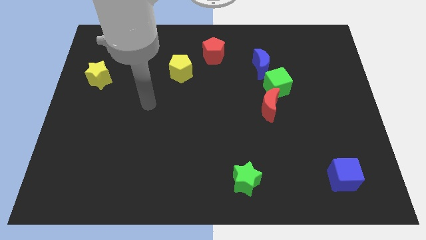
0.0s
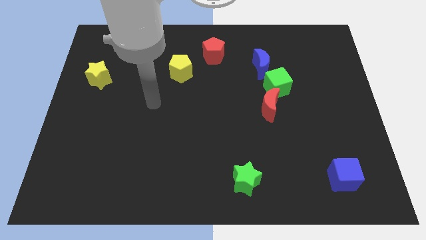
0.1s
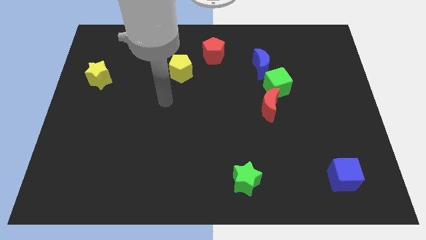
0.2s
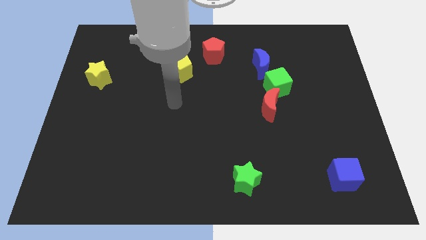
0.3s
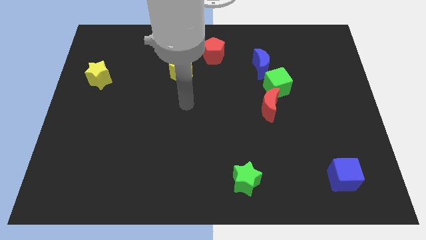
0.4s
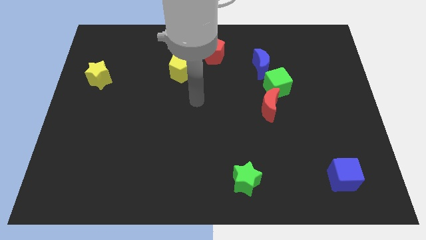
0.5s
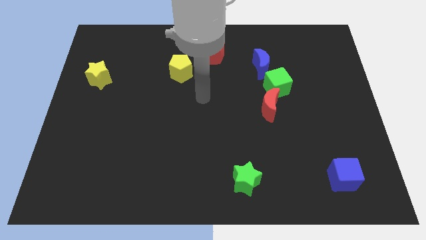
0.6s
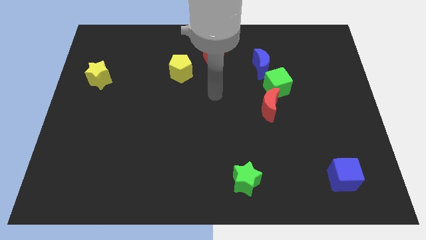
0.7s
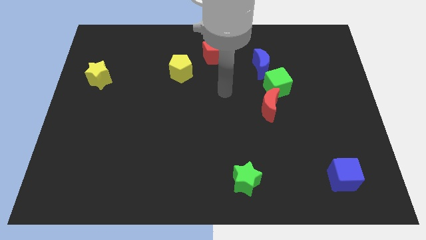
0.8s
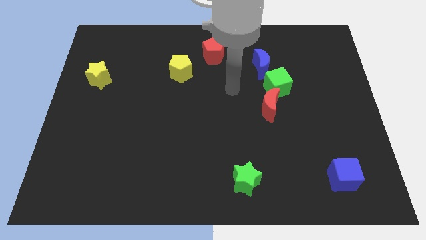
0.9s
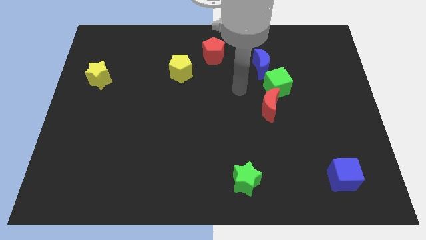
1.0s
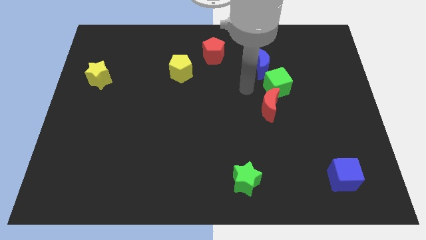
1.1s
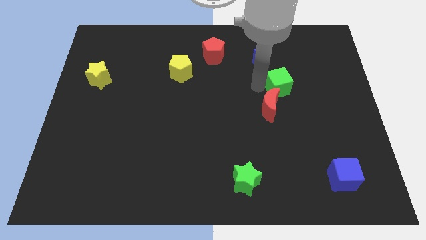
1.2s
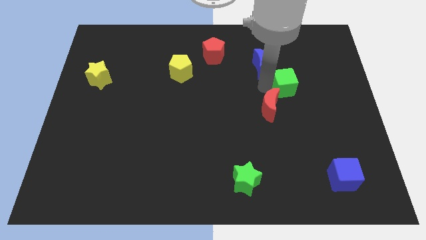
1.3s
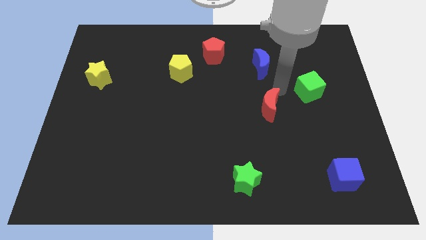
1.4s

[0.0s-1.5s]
separate the red moon from the green cube

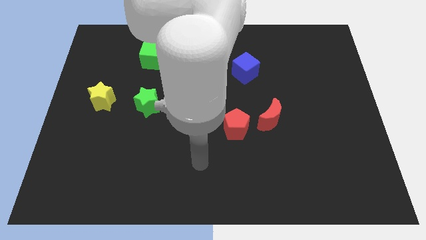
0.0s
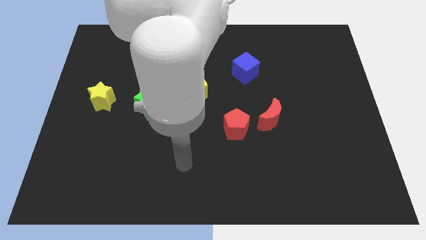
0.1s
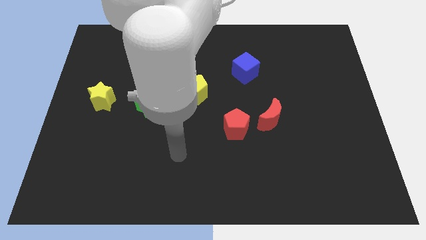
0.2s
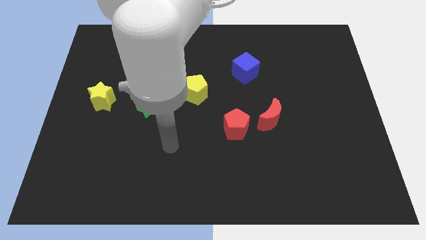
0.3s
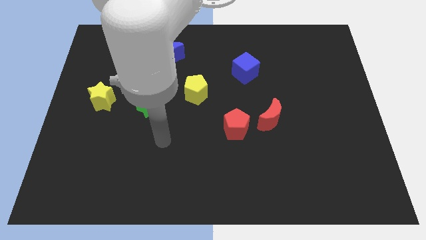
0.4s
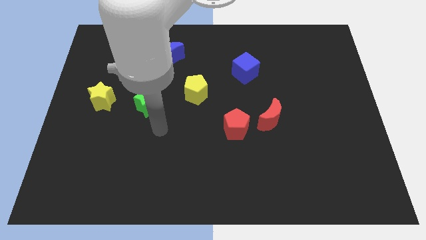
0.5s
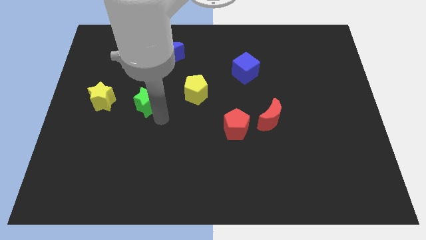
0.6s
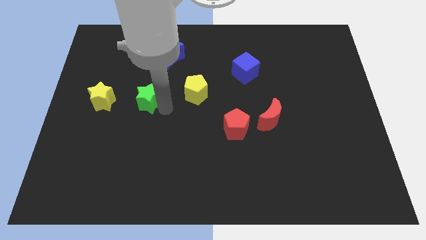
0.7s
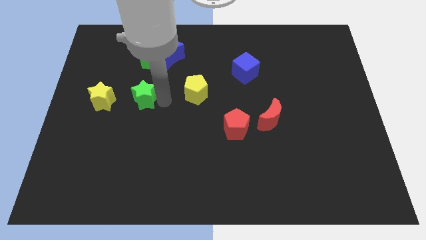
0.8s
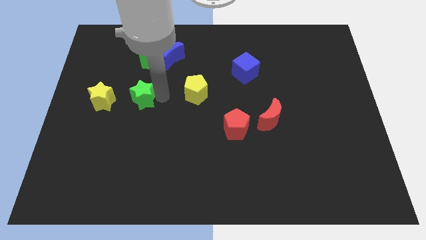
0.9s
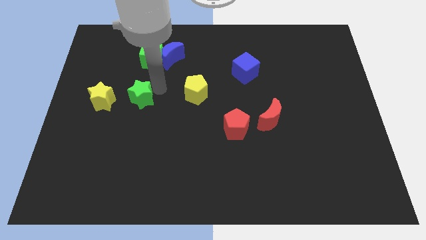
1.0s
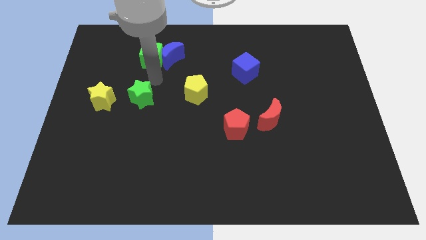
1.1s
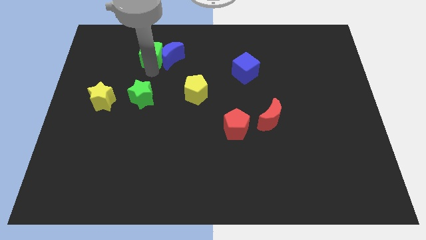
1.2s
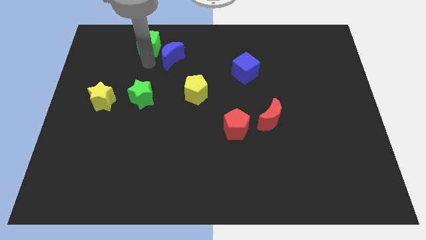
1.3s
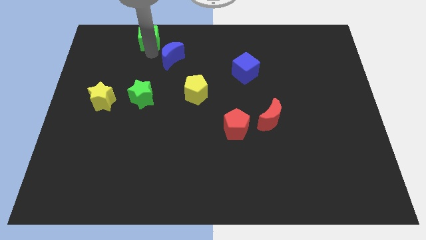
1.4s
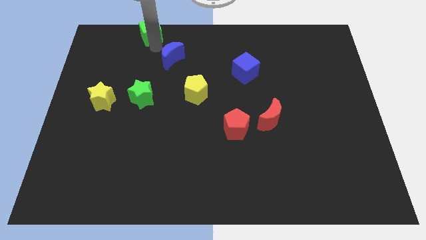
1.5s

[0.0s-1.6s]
move the blue moon away from the green cube

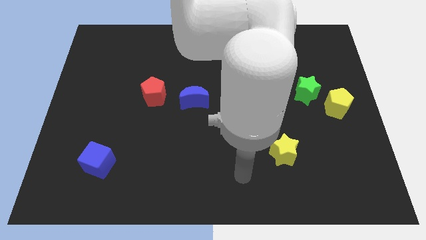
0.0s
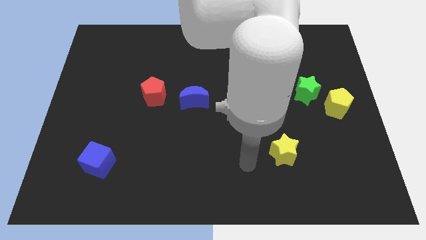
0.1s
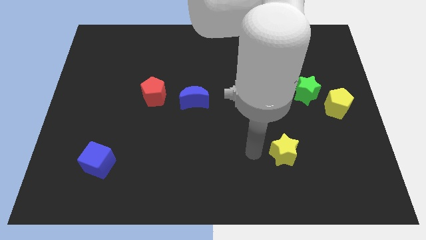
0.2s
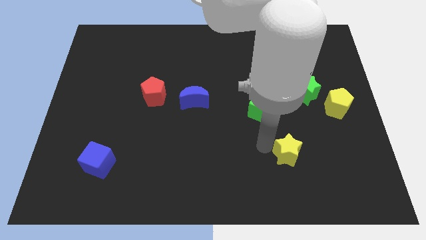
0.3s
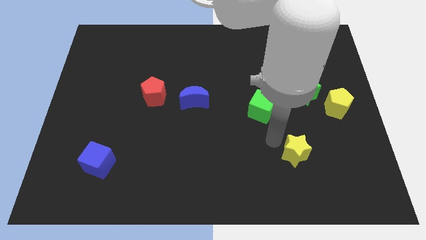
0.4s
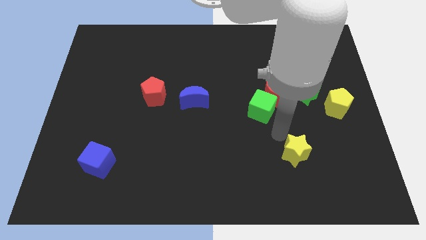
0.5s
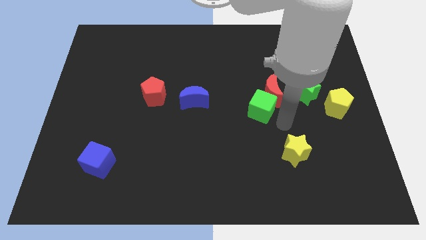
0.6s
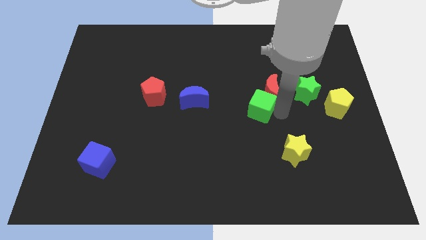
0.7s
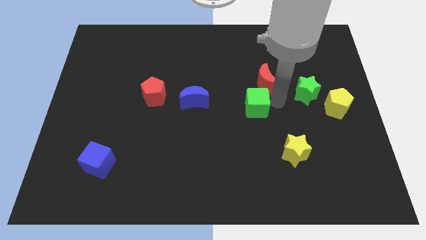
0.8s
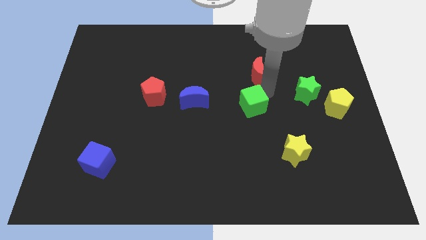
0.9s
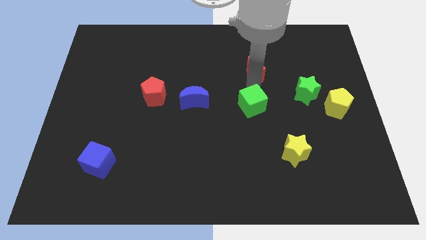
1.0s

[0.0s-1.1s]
separate the green cube from the red moon

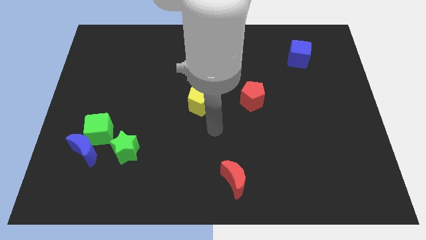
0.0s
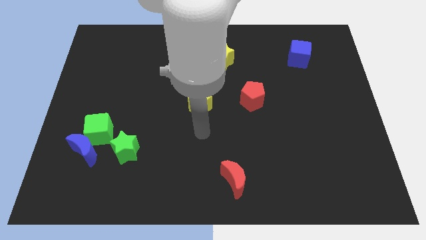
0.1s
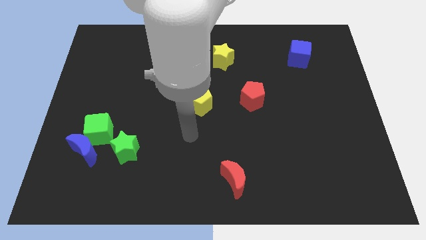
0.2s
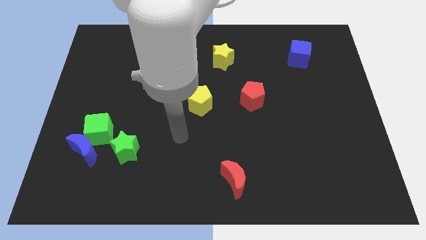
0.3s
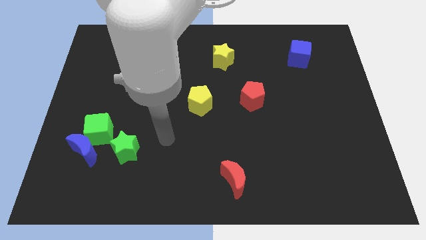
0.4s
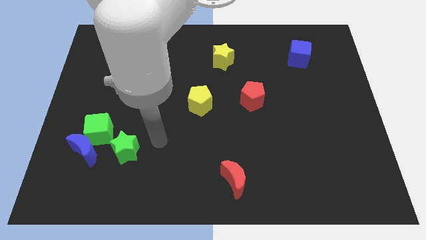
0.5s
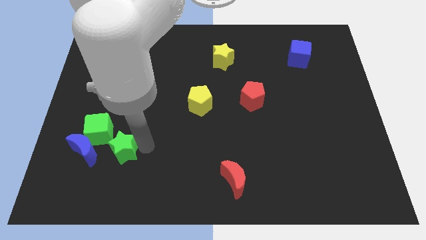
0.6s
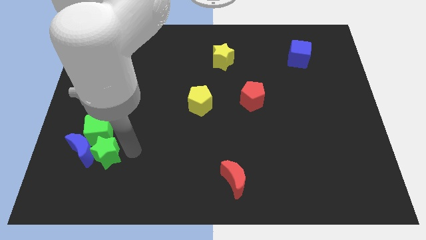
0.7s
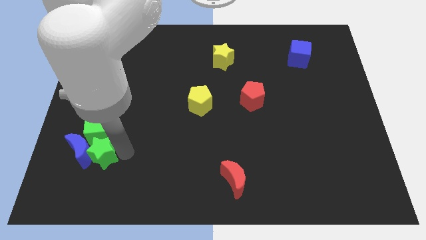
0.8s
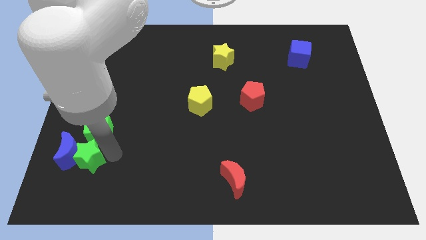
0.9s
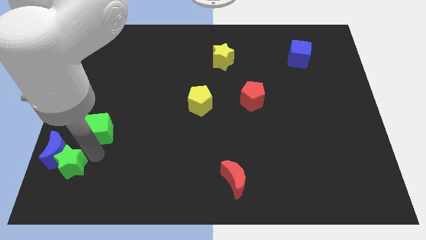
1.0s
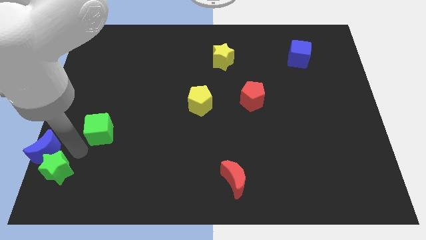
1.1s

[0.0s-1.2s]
separate the green cube from the blue moon and green star

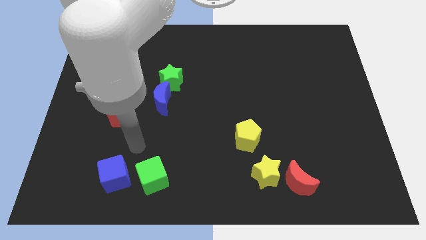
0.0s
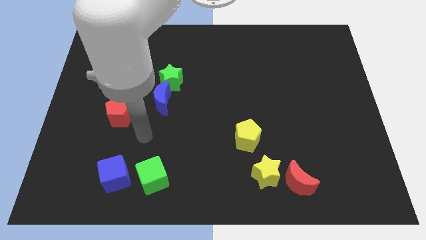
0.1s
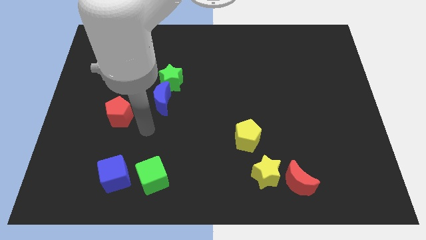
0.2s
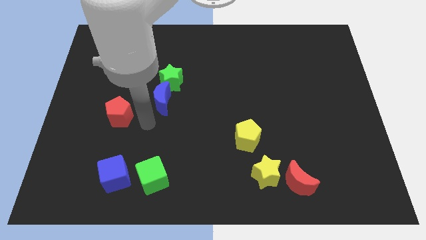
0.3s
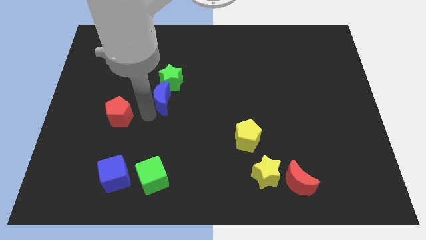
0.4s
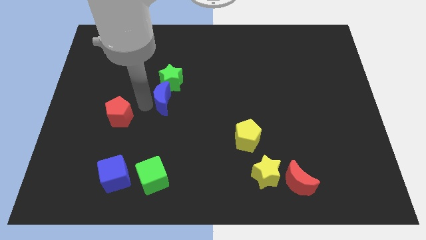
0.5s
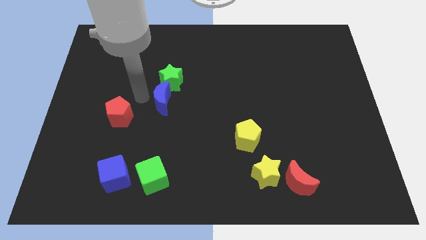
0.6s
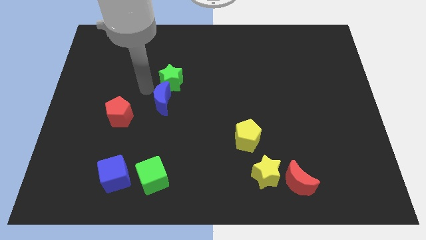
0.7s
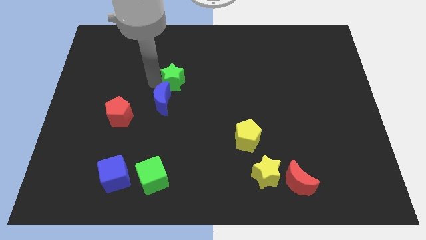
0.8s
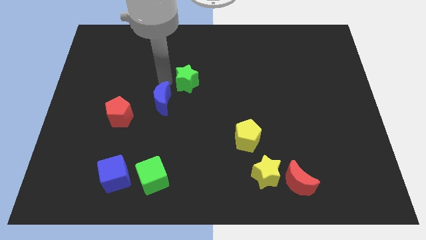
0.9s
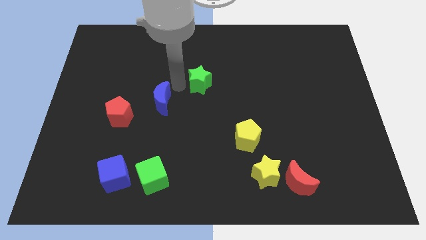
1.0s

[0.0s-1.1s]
separate the blue moon from the green star

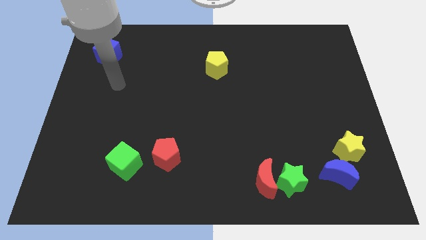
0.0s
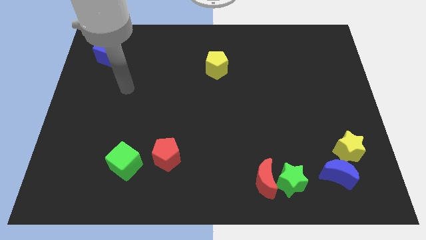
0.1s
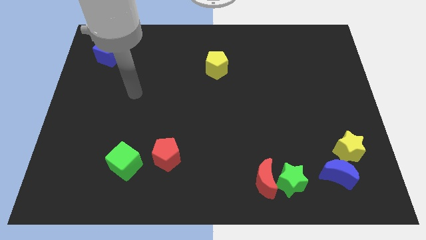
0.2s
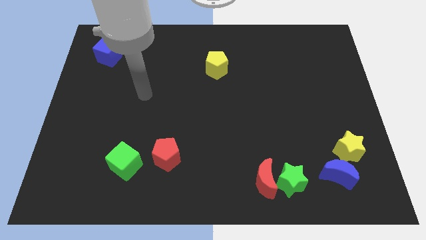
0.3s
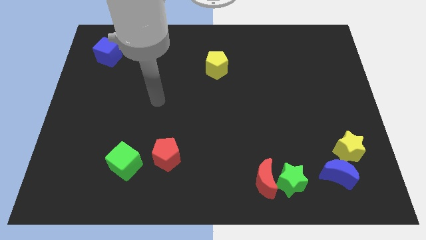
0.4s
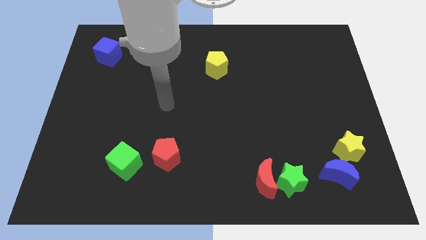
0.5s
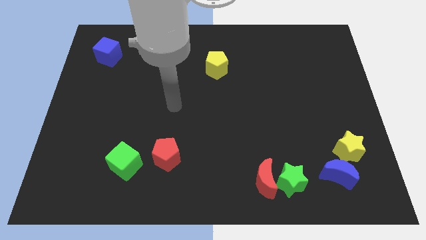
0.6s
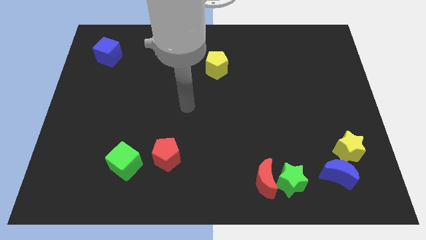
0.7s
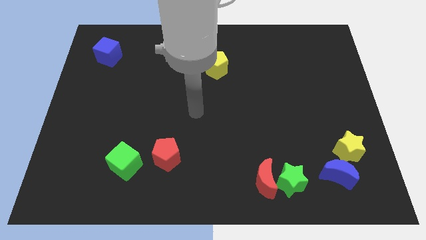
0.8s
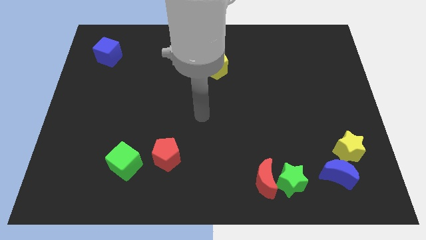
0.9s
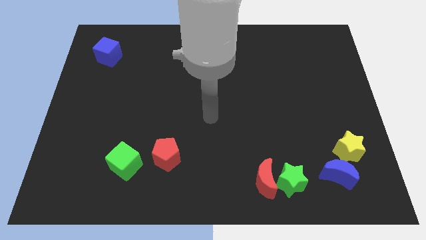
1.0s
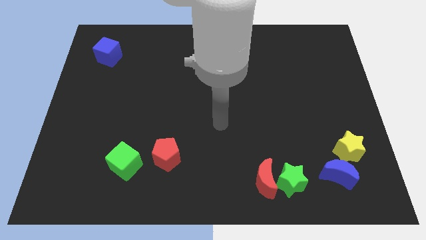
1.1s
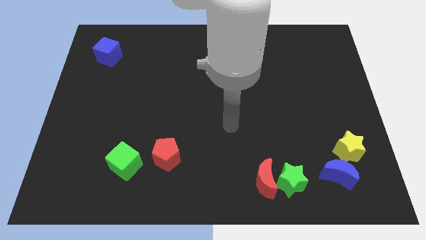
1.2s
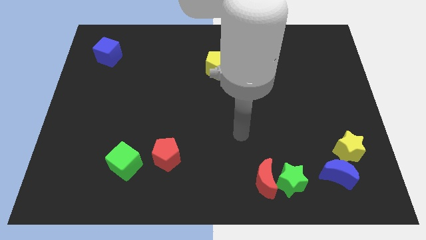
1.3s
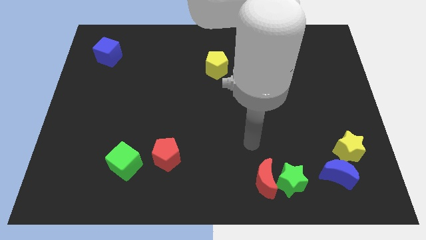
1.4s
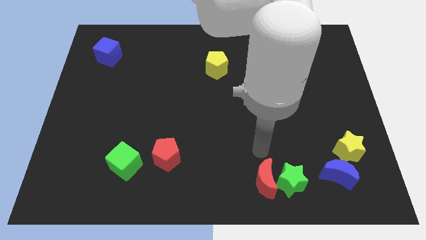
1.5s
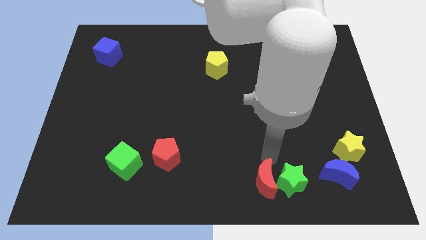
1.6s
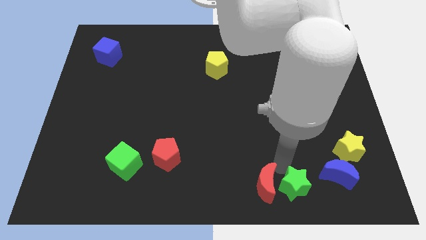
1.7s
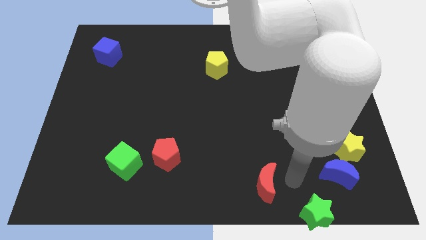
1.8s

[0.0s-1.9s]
move the red moon away from the green star

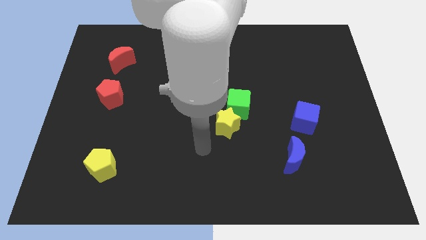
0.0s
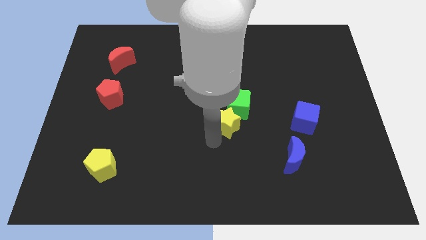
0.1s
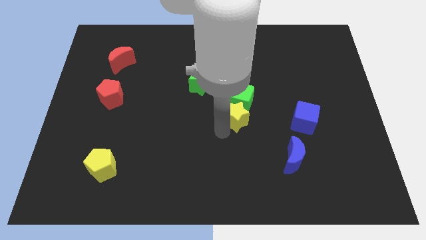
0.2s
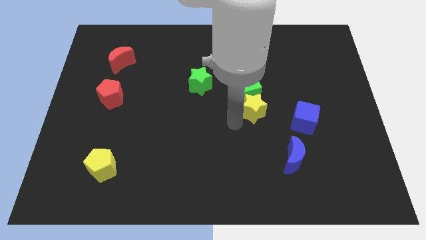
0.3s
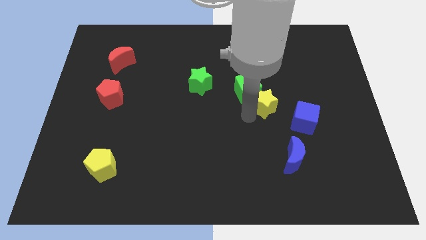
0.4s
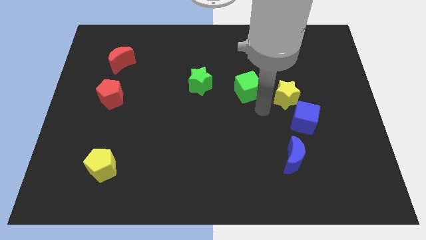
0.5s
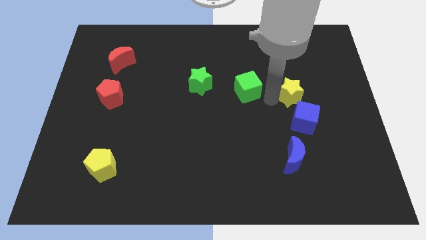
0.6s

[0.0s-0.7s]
move the green cube away from the yellow star

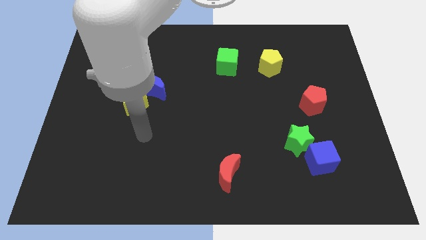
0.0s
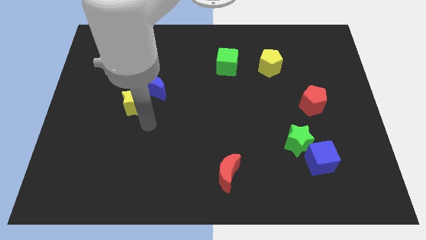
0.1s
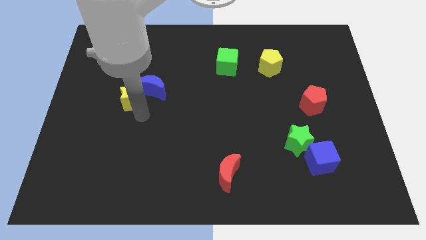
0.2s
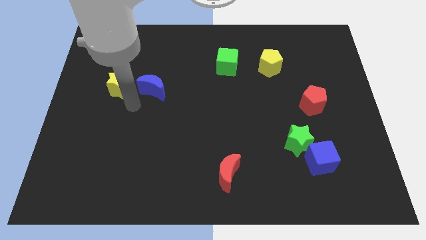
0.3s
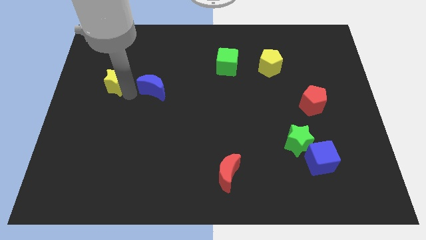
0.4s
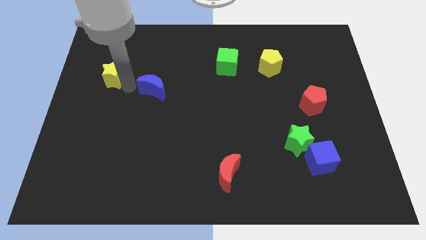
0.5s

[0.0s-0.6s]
separate the blue moon from the yellow star
